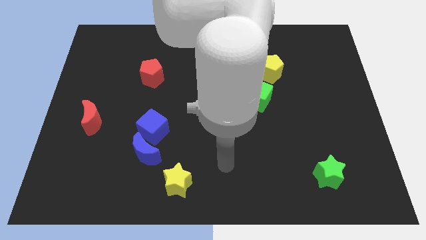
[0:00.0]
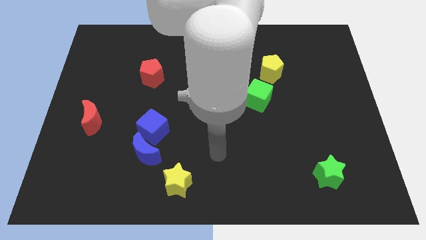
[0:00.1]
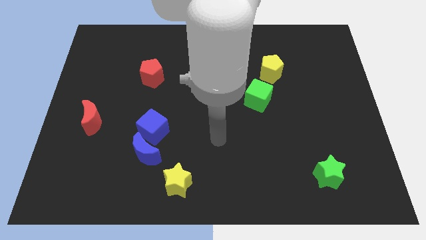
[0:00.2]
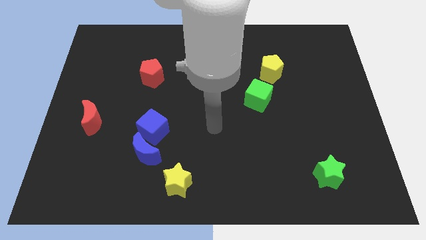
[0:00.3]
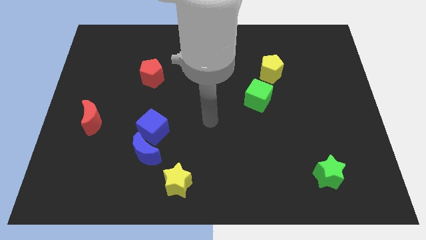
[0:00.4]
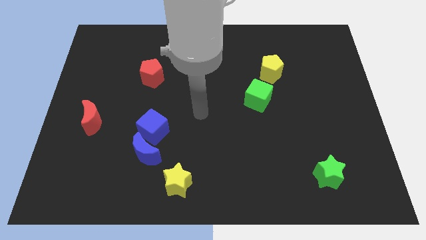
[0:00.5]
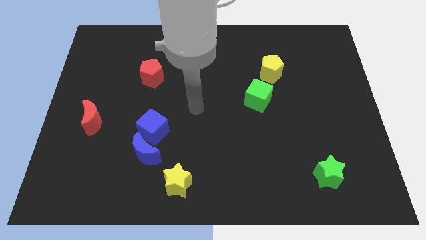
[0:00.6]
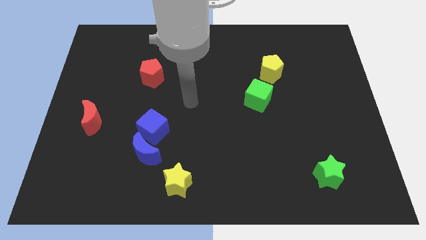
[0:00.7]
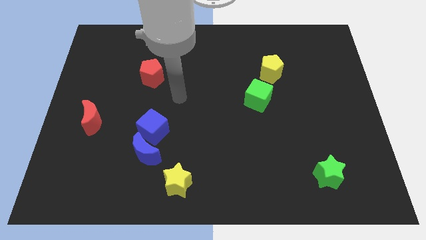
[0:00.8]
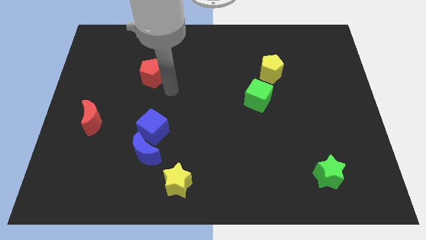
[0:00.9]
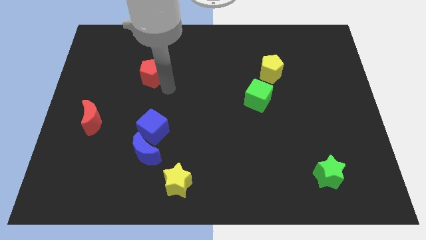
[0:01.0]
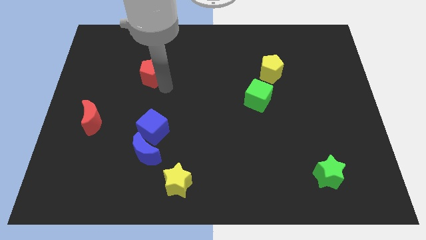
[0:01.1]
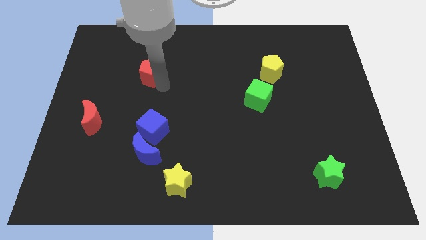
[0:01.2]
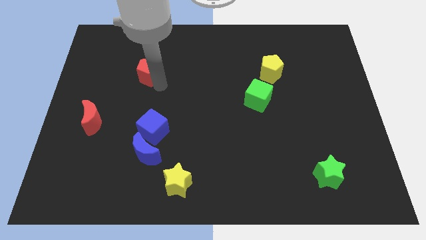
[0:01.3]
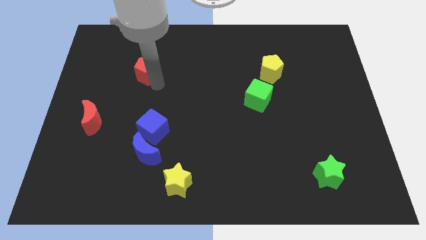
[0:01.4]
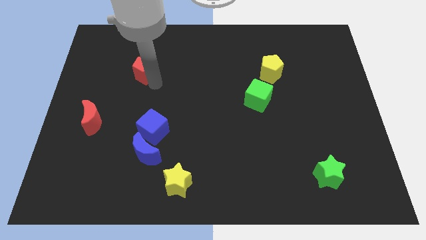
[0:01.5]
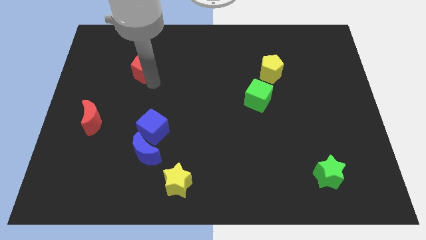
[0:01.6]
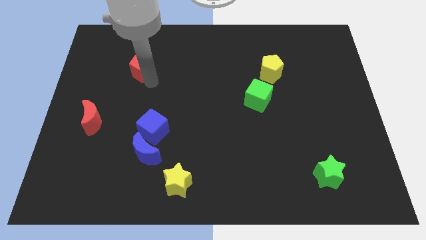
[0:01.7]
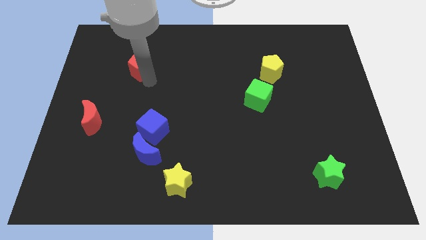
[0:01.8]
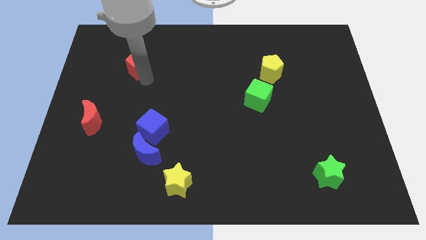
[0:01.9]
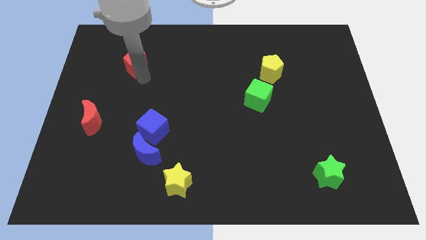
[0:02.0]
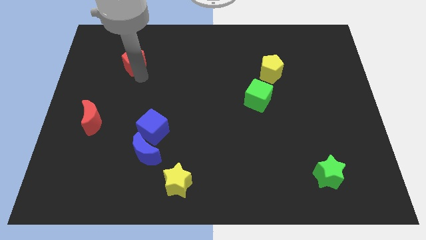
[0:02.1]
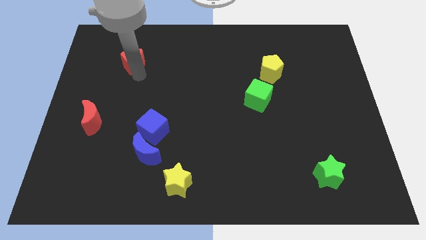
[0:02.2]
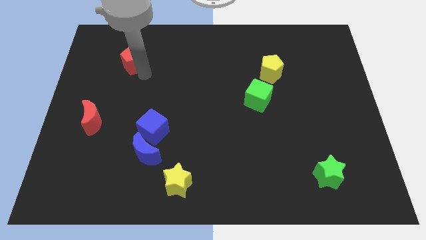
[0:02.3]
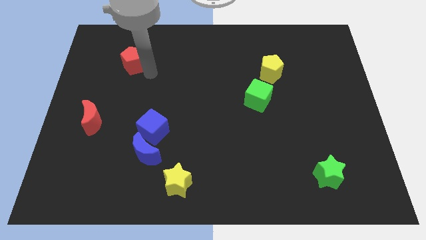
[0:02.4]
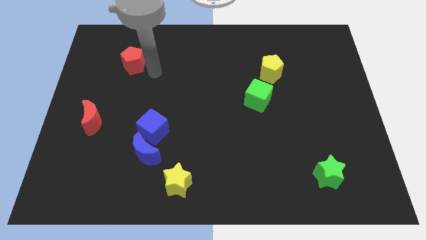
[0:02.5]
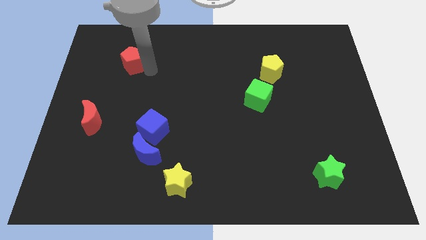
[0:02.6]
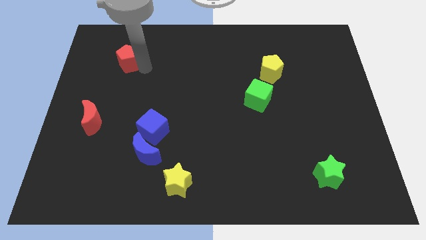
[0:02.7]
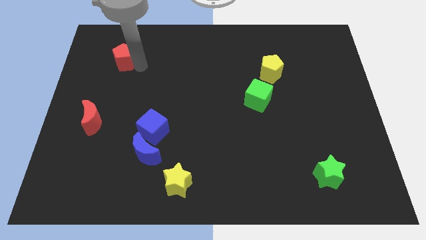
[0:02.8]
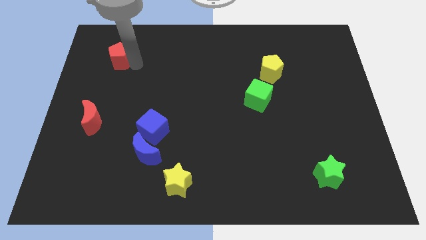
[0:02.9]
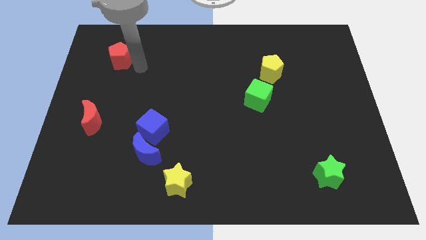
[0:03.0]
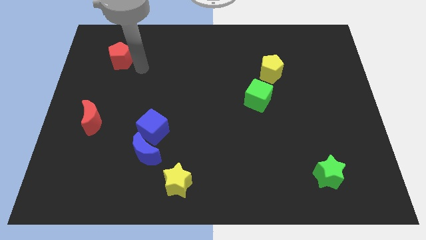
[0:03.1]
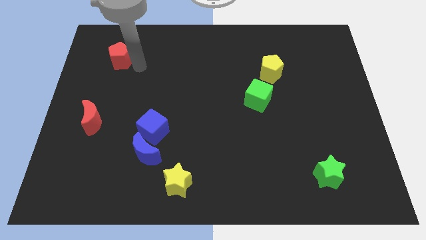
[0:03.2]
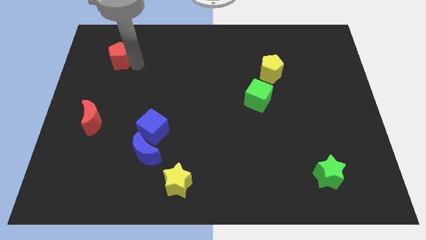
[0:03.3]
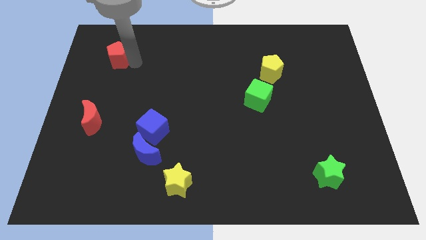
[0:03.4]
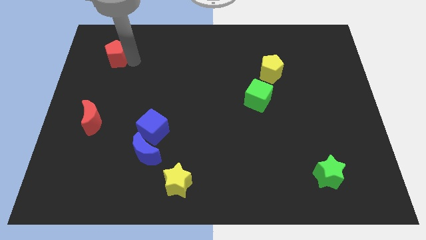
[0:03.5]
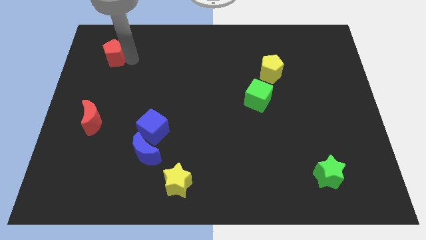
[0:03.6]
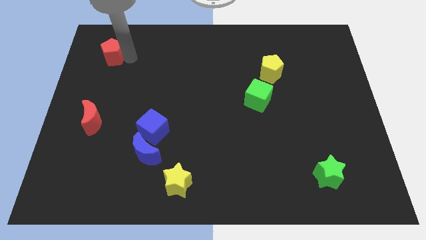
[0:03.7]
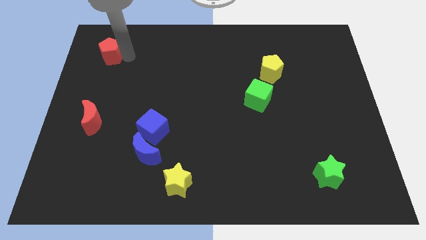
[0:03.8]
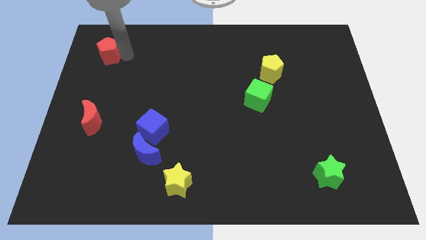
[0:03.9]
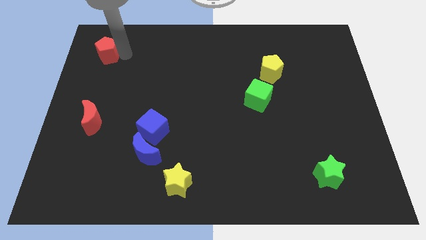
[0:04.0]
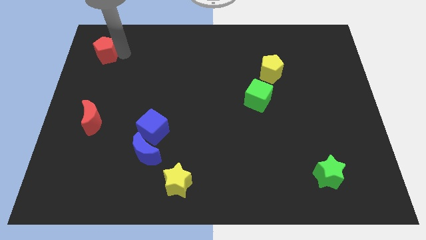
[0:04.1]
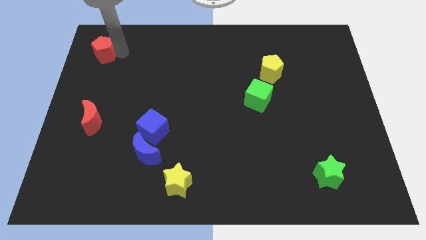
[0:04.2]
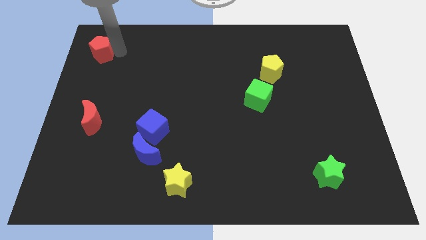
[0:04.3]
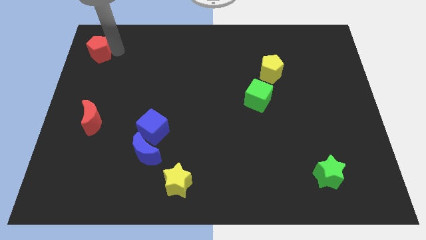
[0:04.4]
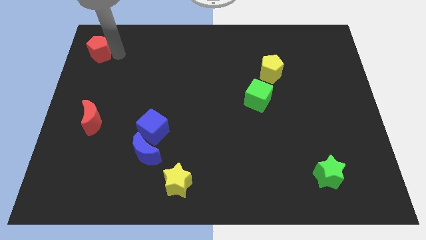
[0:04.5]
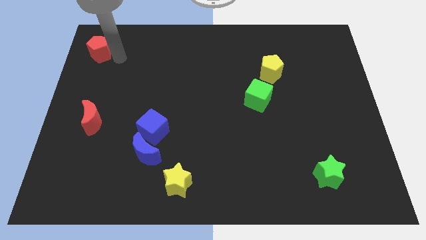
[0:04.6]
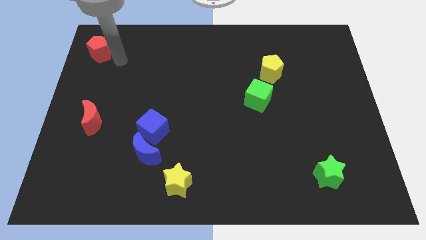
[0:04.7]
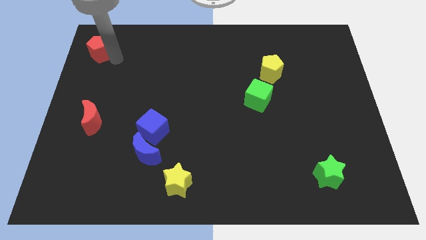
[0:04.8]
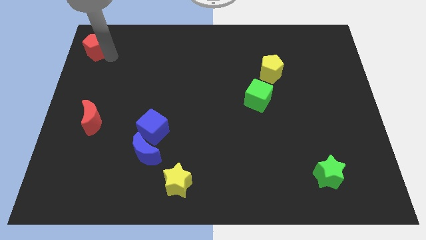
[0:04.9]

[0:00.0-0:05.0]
push the red pentagon to the top left of the board

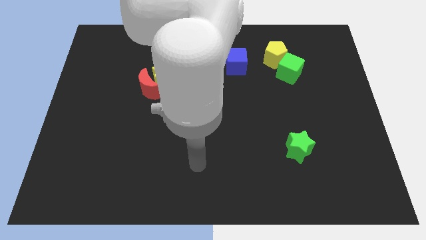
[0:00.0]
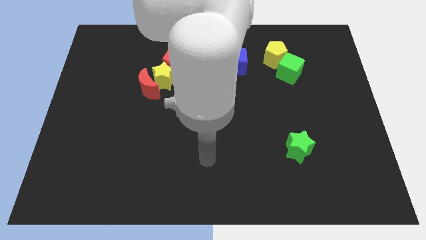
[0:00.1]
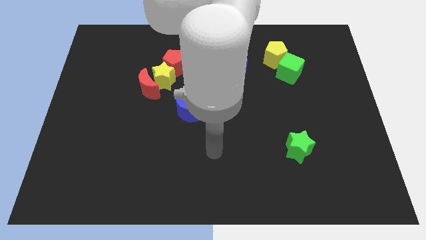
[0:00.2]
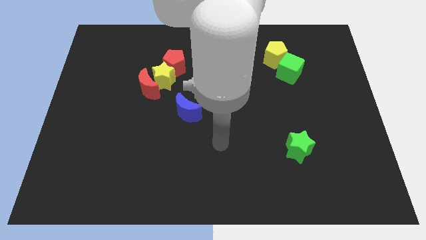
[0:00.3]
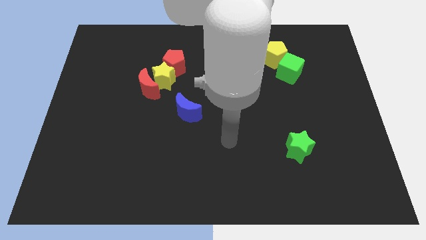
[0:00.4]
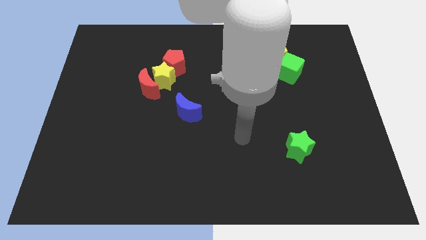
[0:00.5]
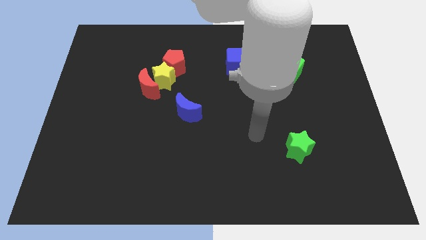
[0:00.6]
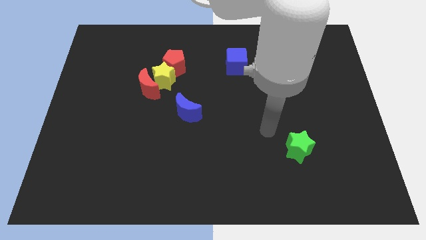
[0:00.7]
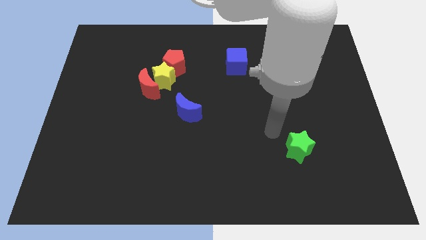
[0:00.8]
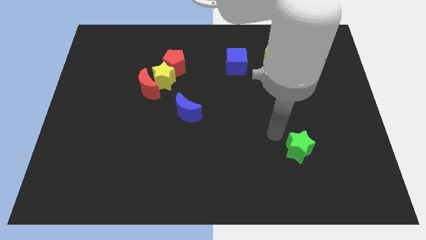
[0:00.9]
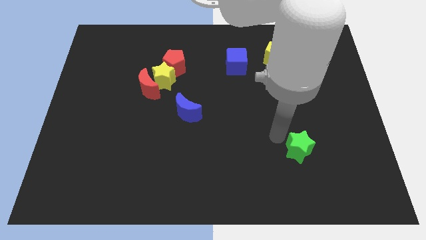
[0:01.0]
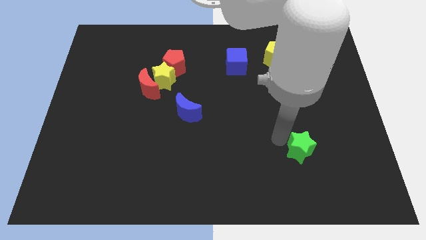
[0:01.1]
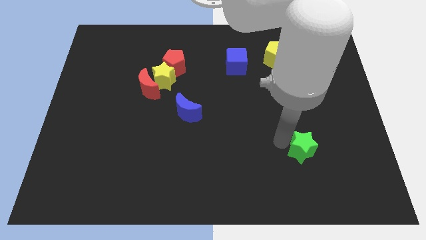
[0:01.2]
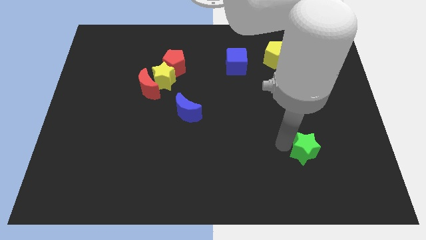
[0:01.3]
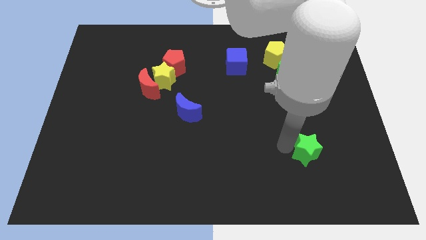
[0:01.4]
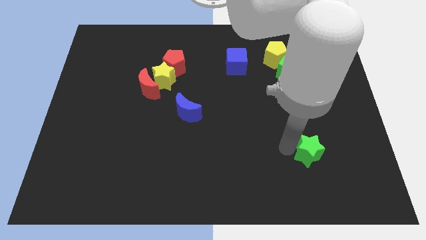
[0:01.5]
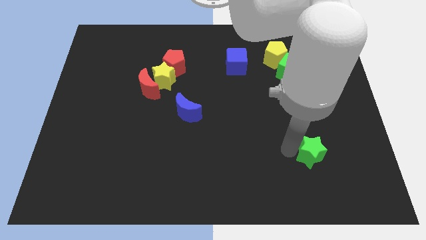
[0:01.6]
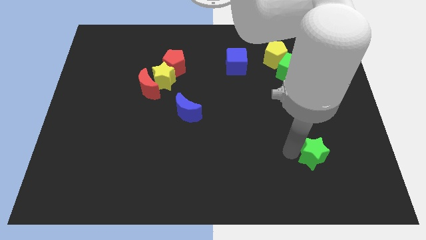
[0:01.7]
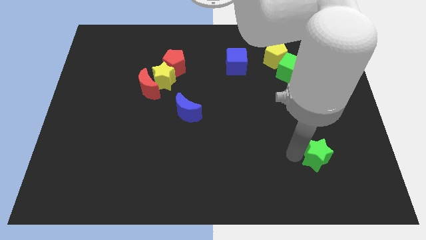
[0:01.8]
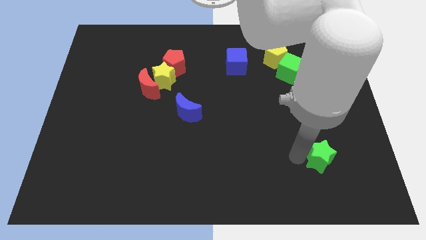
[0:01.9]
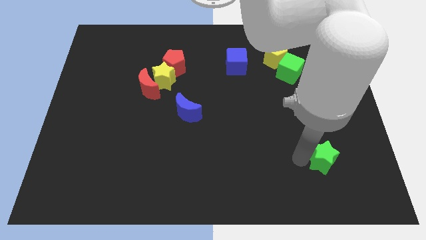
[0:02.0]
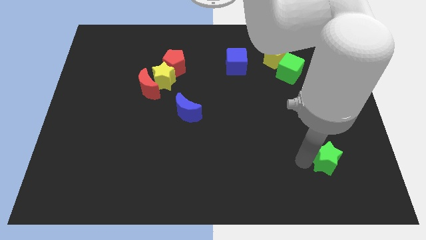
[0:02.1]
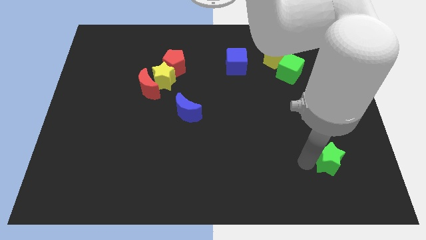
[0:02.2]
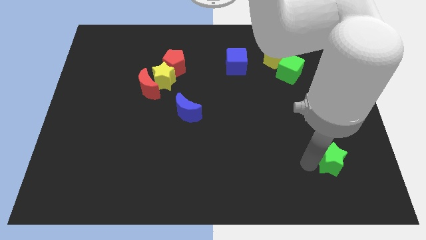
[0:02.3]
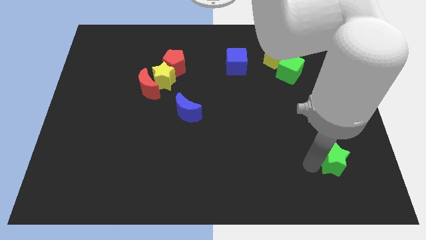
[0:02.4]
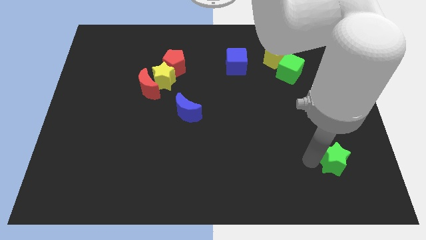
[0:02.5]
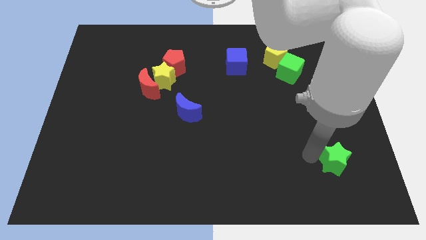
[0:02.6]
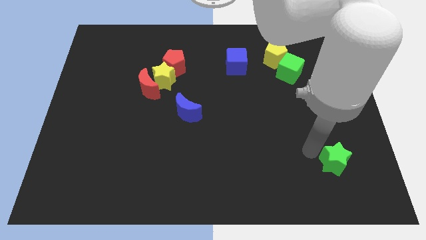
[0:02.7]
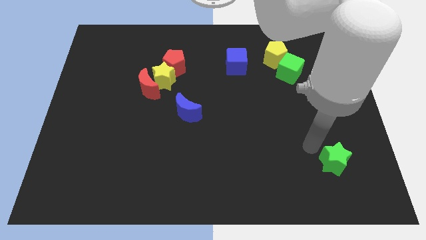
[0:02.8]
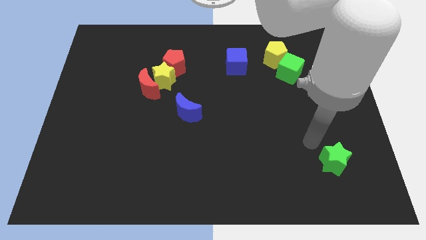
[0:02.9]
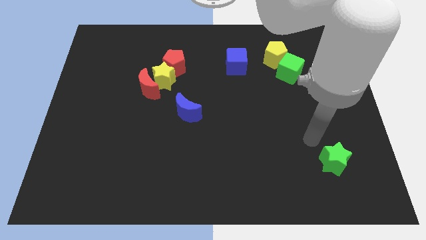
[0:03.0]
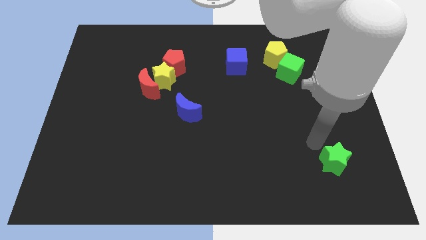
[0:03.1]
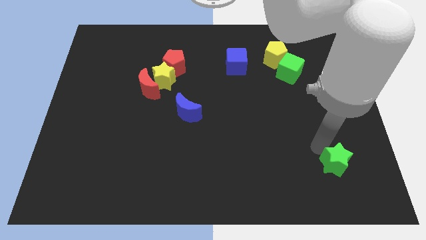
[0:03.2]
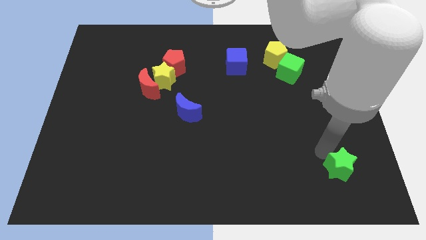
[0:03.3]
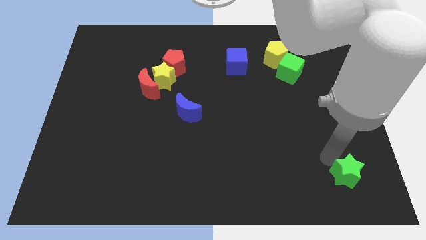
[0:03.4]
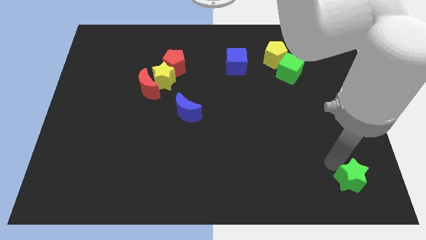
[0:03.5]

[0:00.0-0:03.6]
put the green star to the bottom right corner
